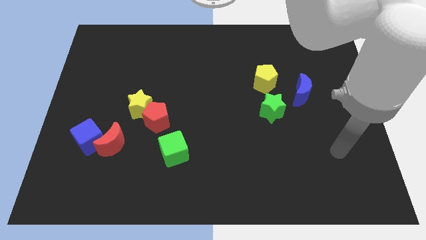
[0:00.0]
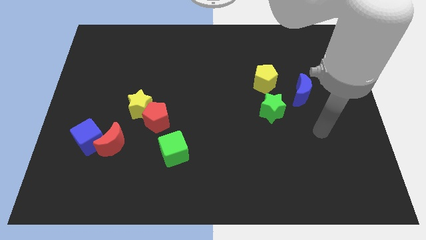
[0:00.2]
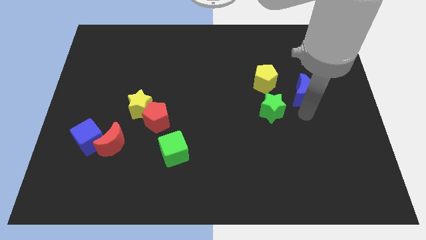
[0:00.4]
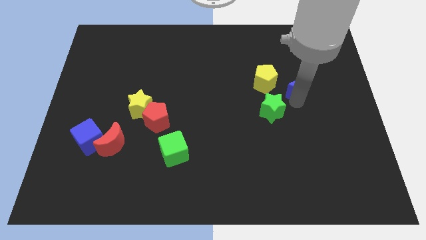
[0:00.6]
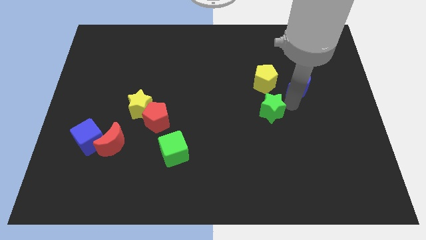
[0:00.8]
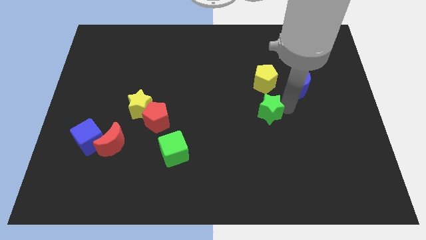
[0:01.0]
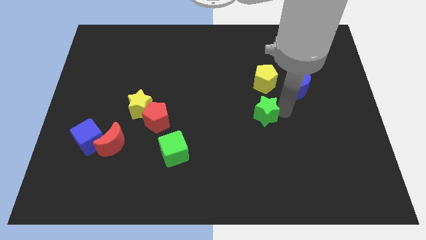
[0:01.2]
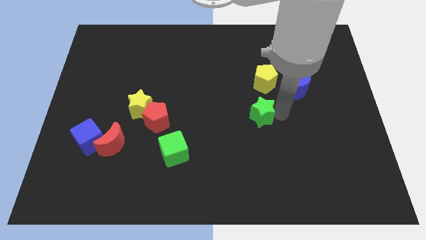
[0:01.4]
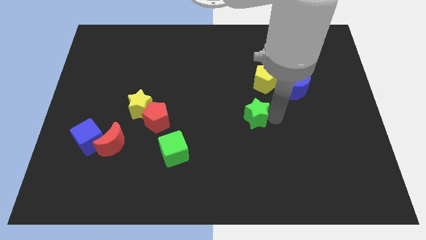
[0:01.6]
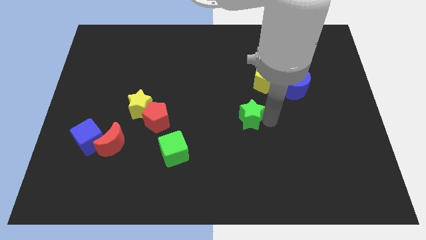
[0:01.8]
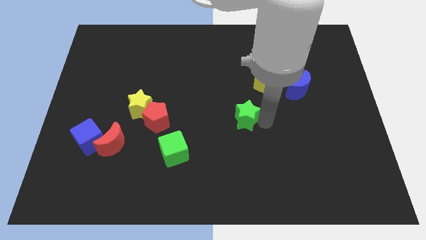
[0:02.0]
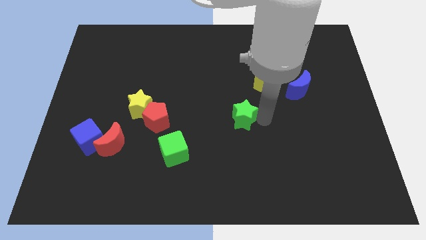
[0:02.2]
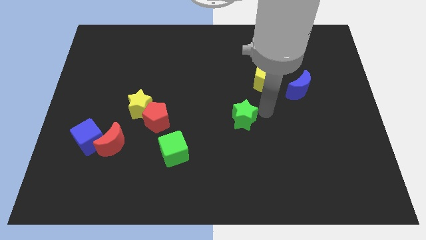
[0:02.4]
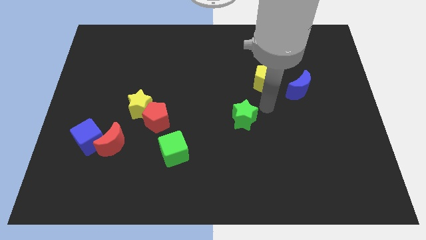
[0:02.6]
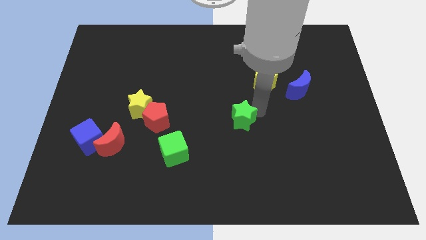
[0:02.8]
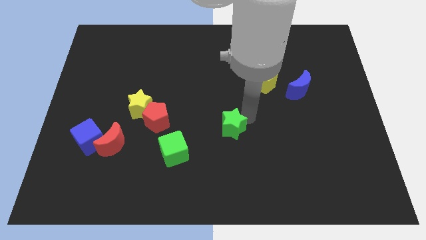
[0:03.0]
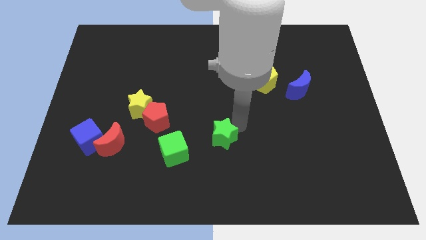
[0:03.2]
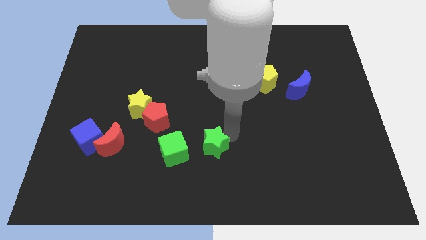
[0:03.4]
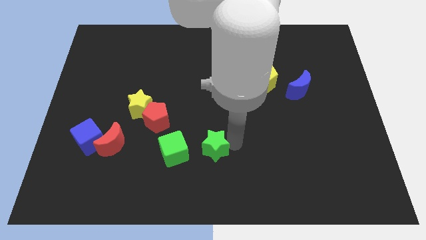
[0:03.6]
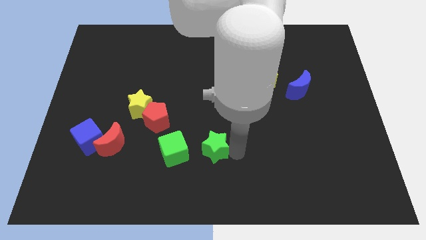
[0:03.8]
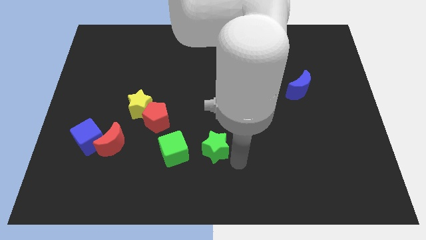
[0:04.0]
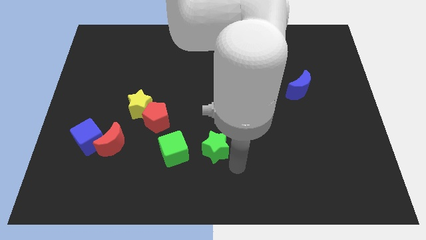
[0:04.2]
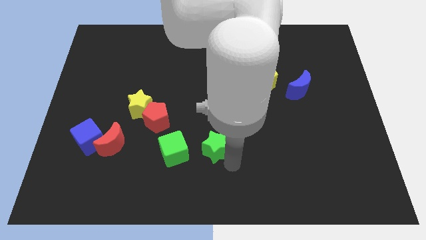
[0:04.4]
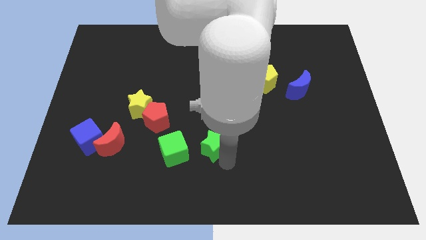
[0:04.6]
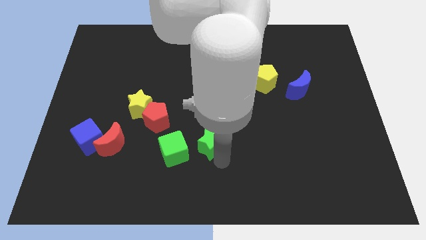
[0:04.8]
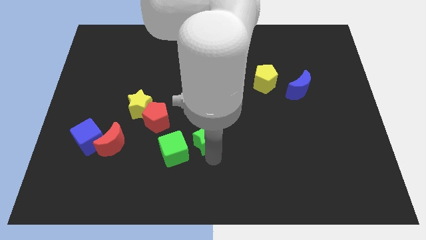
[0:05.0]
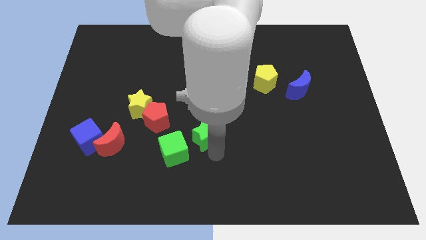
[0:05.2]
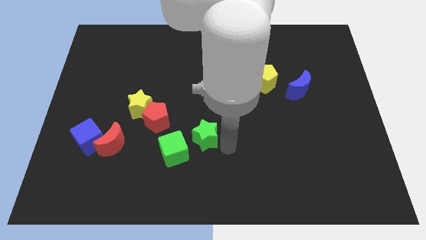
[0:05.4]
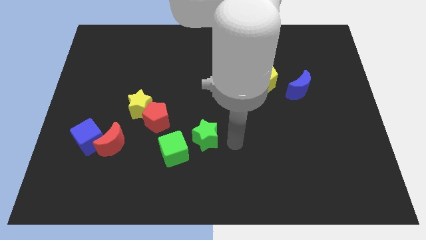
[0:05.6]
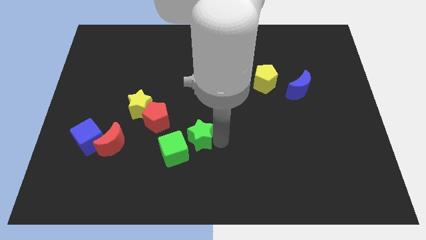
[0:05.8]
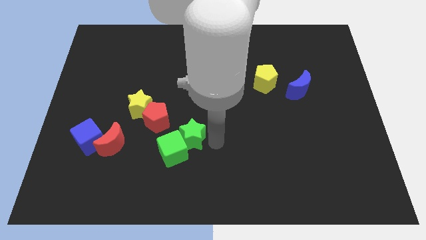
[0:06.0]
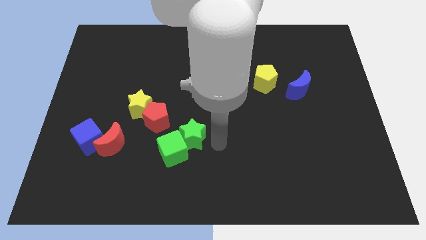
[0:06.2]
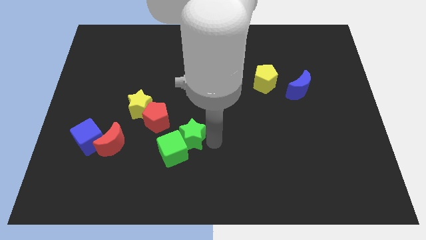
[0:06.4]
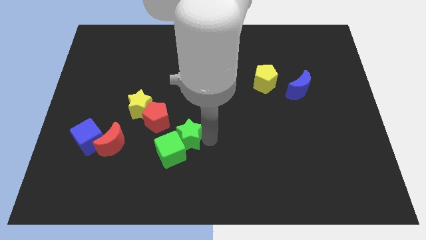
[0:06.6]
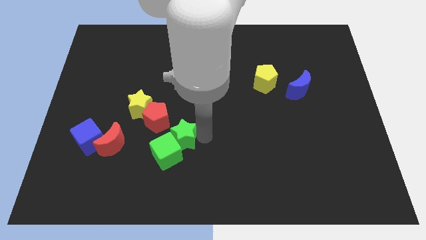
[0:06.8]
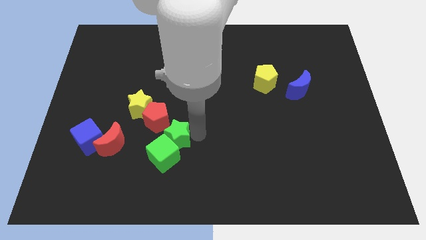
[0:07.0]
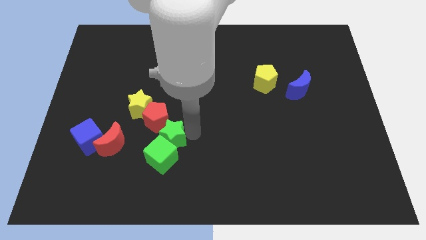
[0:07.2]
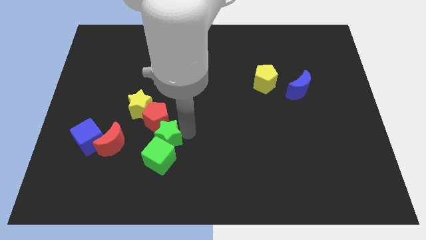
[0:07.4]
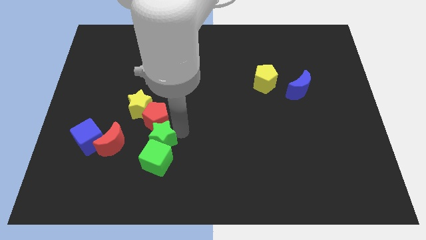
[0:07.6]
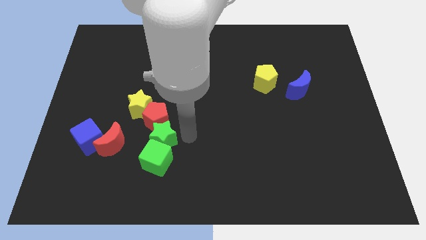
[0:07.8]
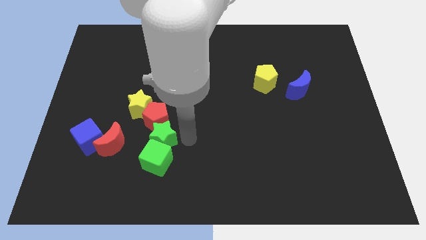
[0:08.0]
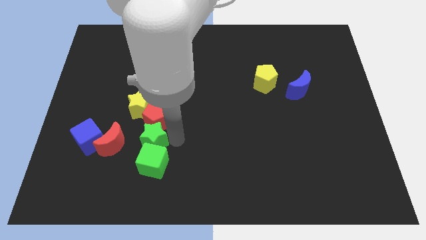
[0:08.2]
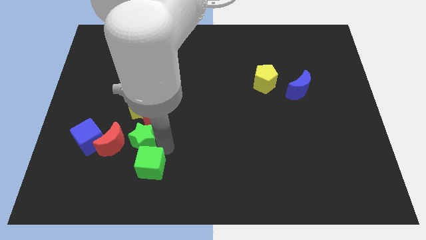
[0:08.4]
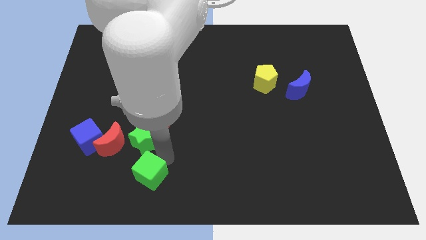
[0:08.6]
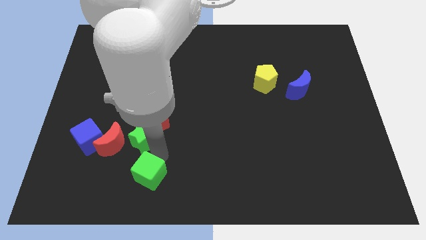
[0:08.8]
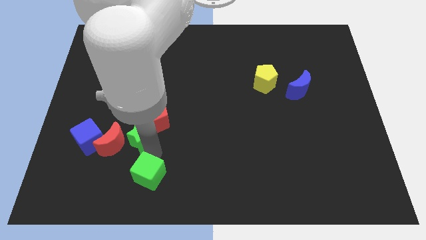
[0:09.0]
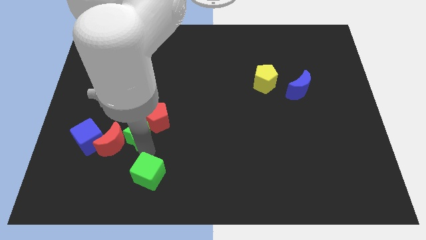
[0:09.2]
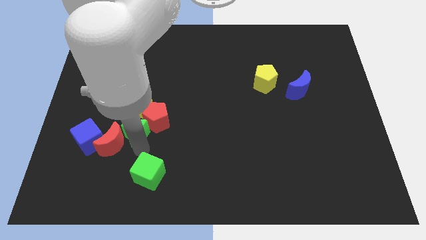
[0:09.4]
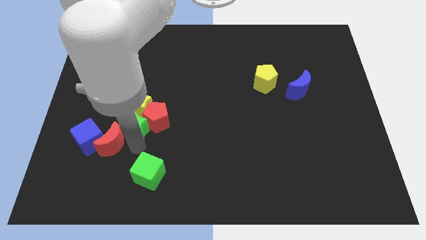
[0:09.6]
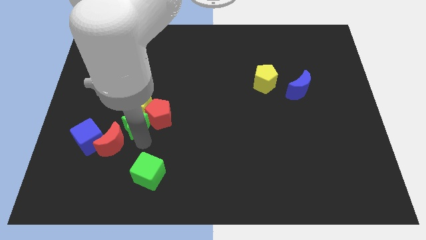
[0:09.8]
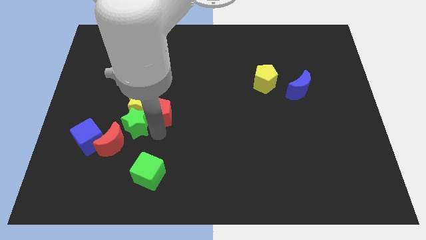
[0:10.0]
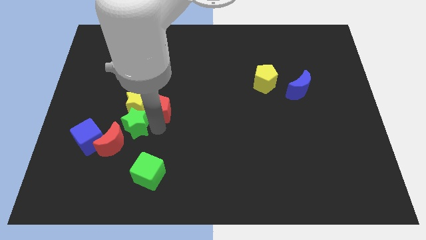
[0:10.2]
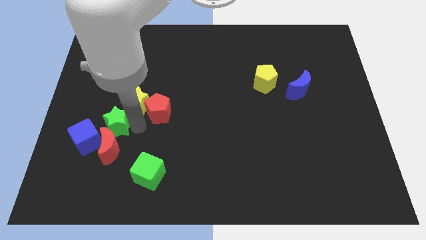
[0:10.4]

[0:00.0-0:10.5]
slide the green star to the top left of the red moon

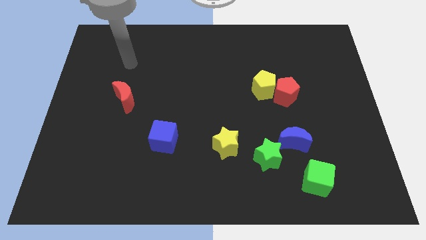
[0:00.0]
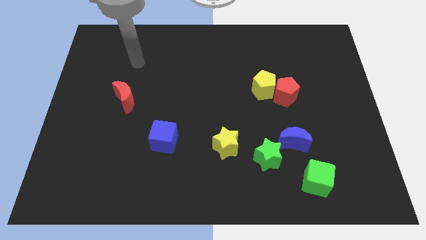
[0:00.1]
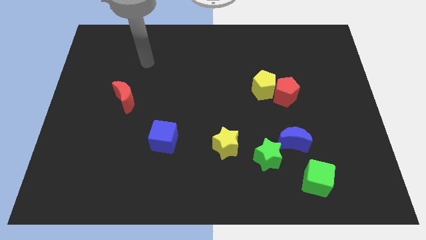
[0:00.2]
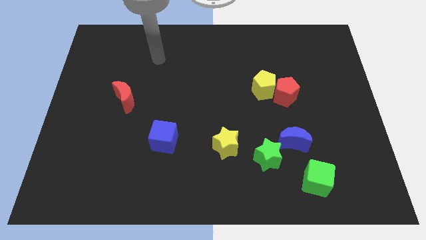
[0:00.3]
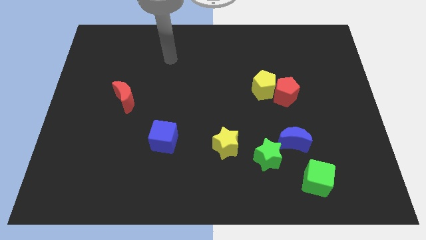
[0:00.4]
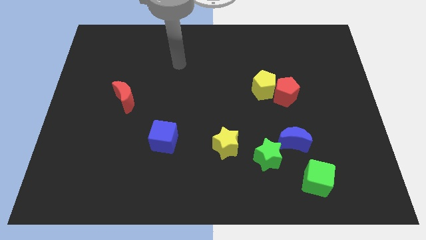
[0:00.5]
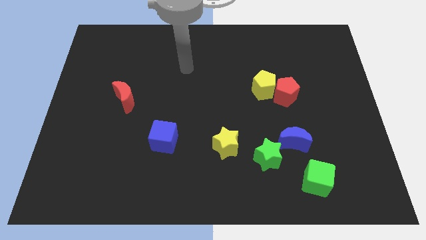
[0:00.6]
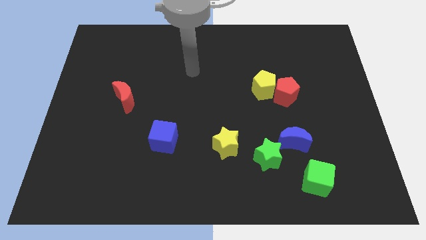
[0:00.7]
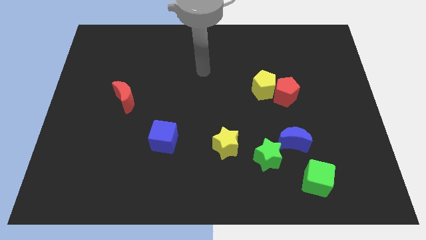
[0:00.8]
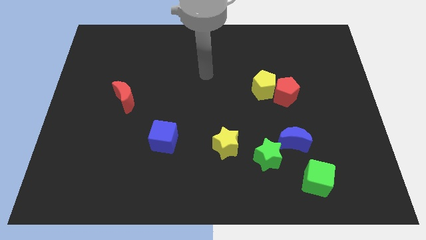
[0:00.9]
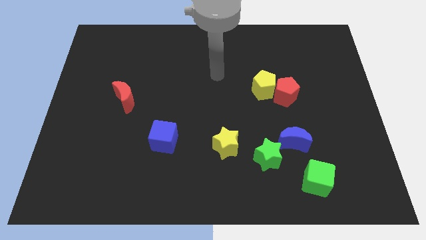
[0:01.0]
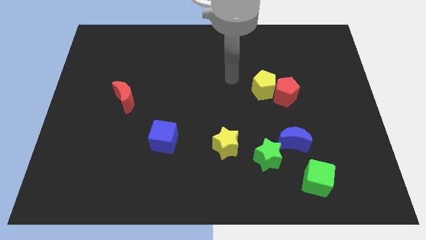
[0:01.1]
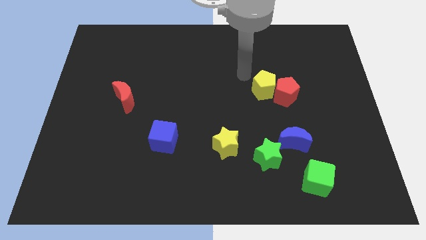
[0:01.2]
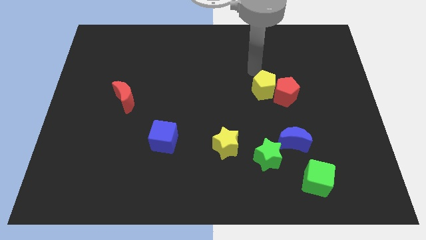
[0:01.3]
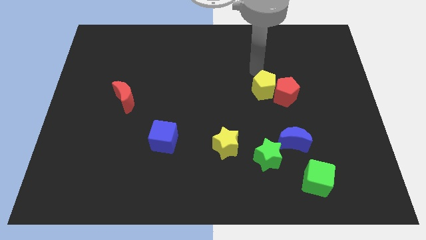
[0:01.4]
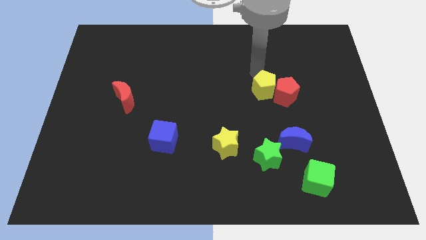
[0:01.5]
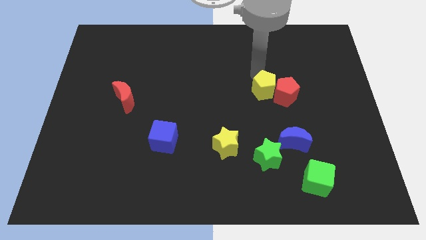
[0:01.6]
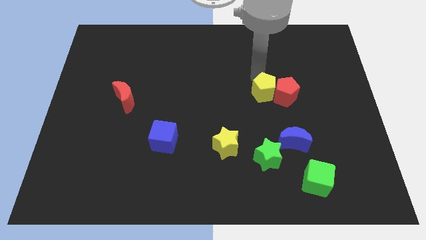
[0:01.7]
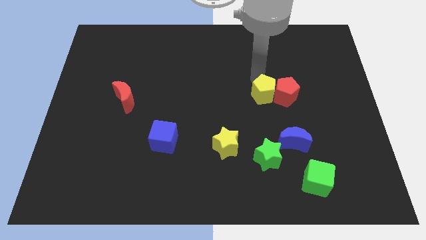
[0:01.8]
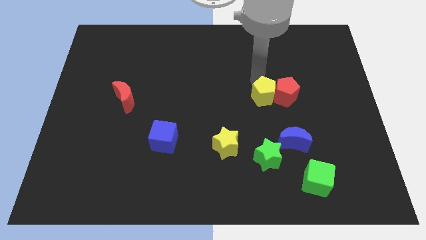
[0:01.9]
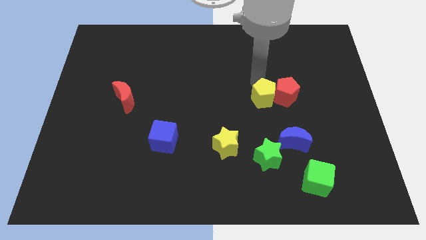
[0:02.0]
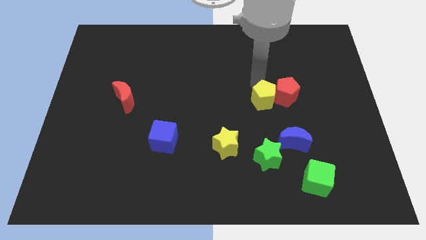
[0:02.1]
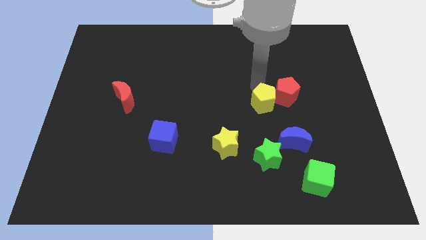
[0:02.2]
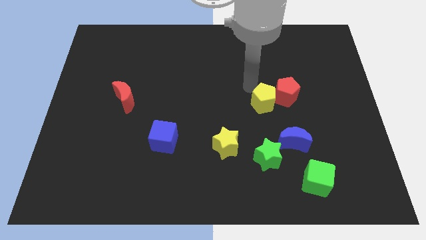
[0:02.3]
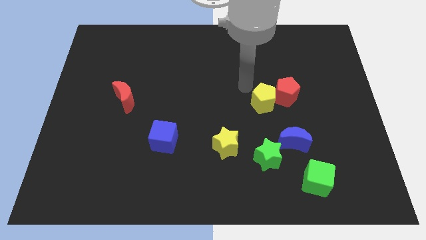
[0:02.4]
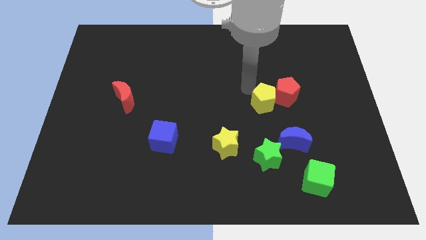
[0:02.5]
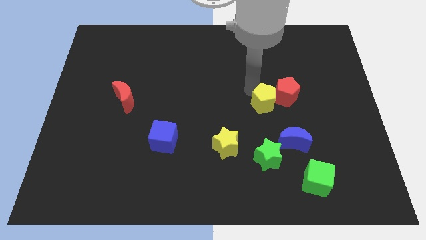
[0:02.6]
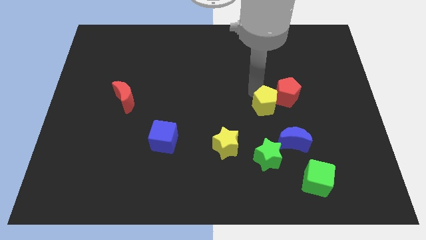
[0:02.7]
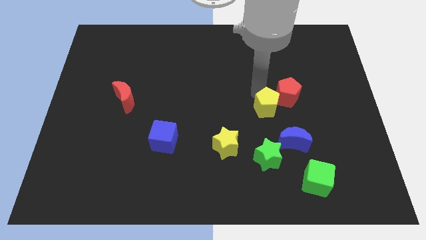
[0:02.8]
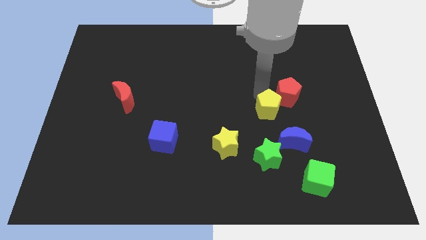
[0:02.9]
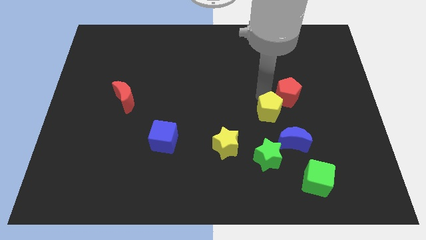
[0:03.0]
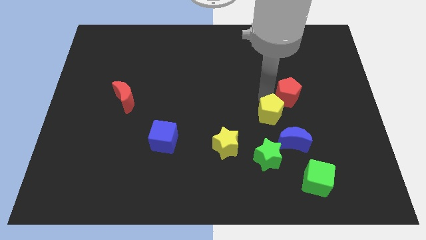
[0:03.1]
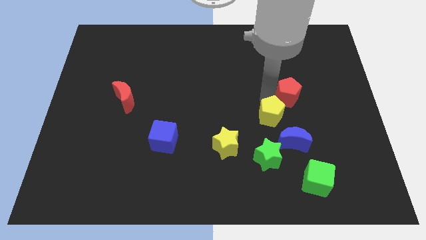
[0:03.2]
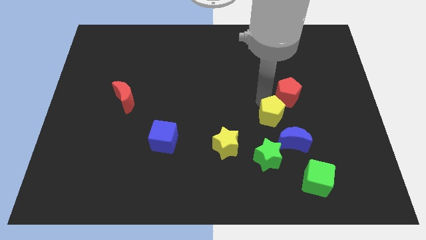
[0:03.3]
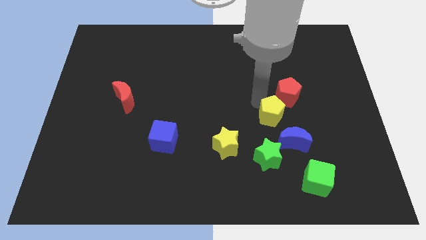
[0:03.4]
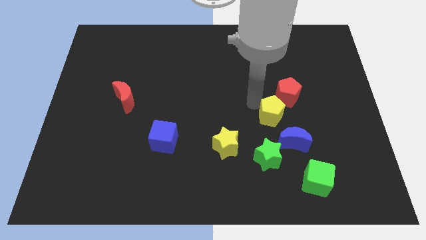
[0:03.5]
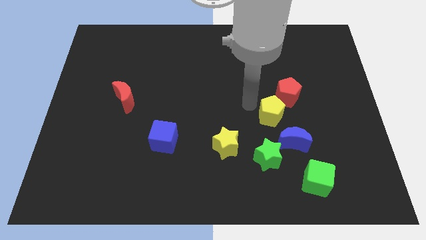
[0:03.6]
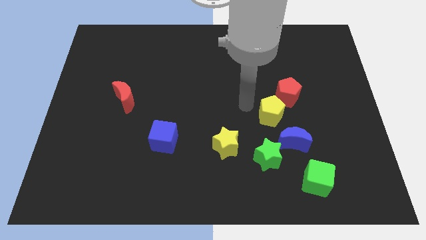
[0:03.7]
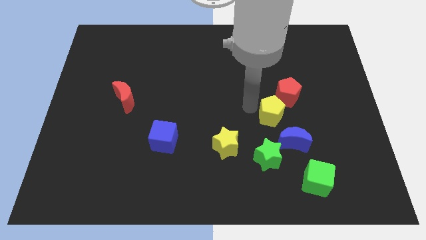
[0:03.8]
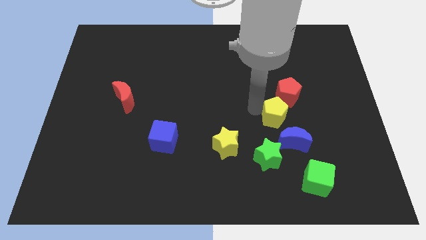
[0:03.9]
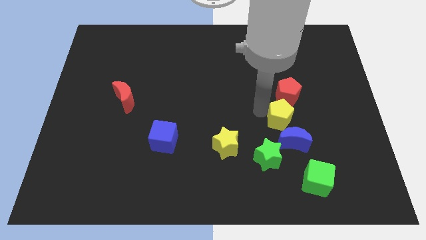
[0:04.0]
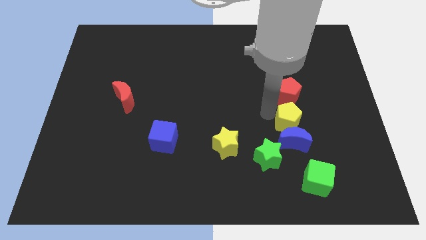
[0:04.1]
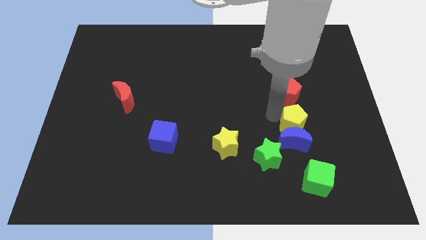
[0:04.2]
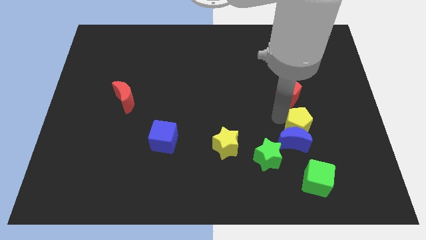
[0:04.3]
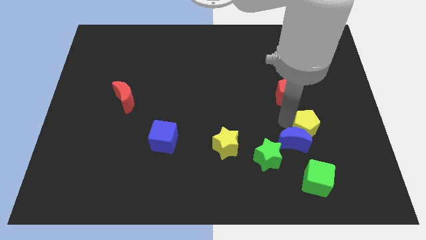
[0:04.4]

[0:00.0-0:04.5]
move the yellow pentagon to the right side of the blue moon
